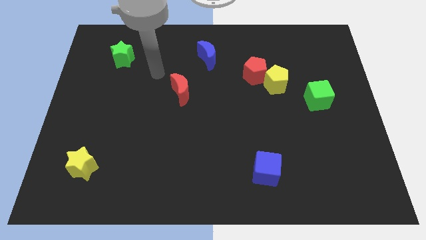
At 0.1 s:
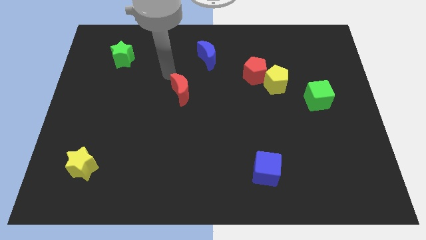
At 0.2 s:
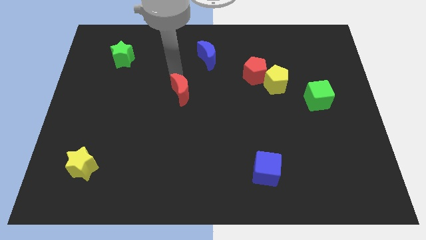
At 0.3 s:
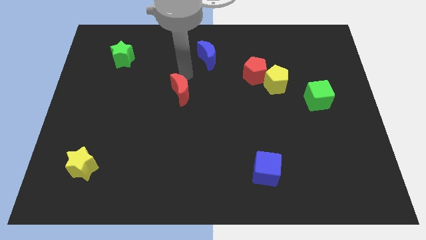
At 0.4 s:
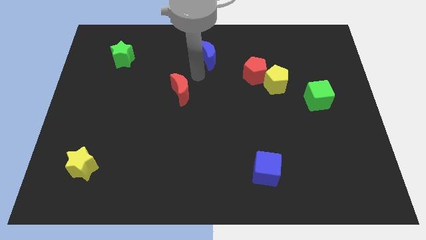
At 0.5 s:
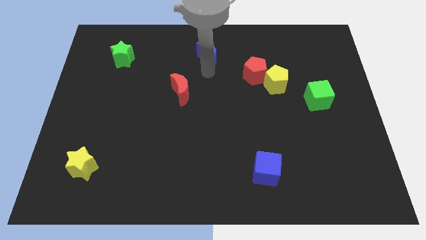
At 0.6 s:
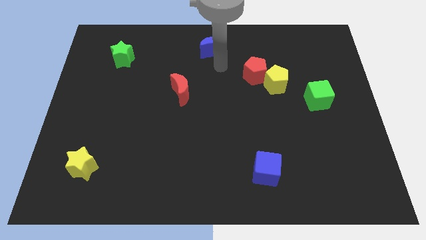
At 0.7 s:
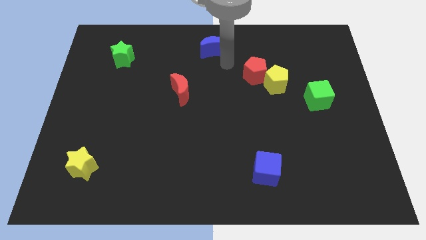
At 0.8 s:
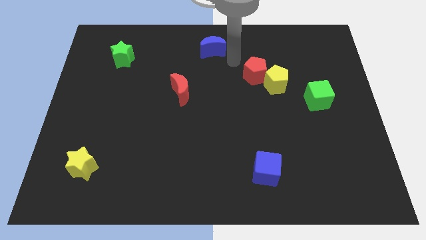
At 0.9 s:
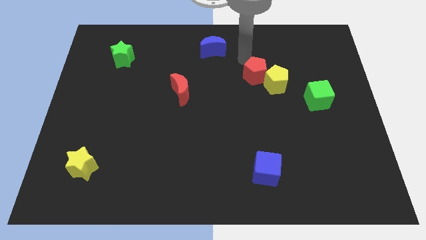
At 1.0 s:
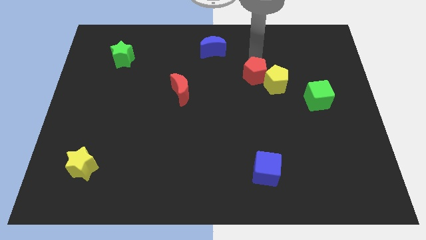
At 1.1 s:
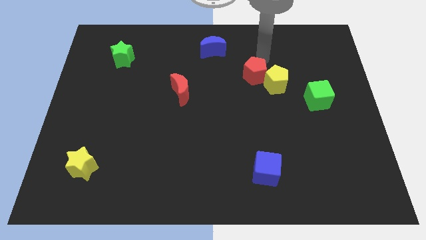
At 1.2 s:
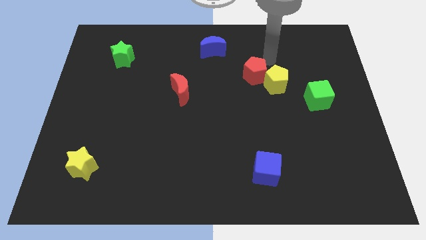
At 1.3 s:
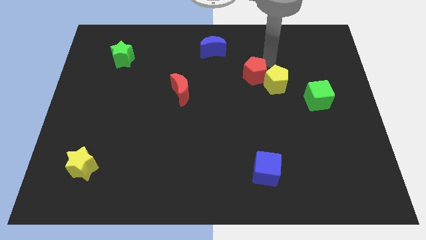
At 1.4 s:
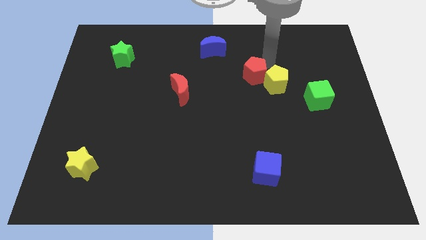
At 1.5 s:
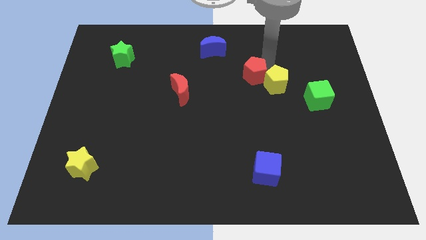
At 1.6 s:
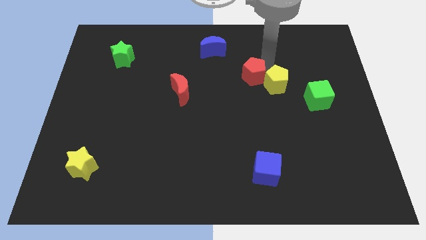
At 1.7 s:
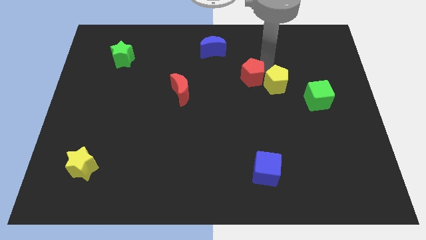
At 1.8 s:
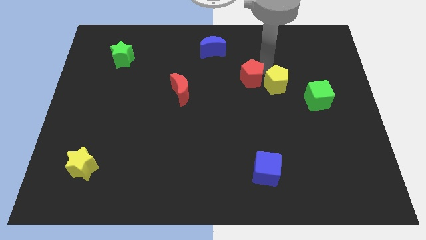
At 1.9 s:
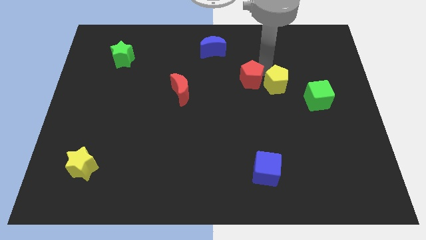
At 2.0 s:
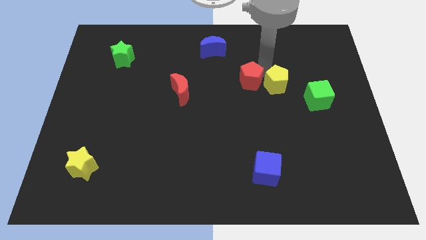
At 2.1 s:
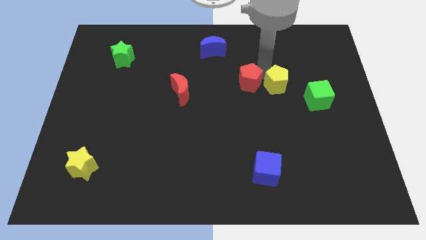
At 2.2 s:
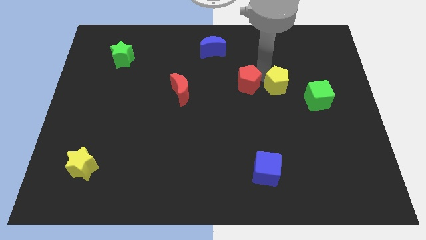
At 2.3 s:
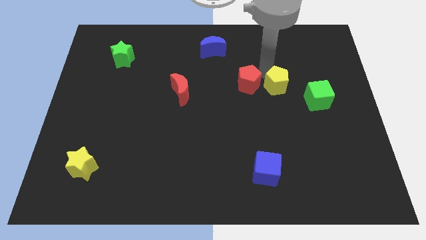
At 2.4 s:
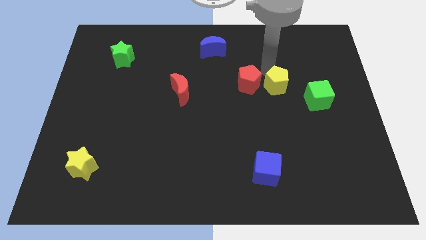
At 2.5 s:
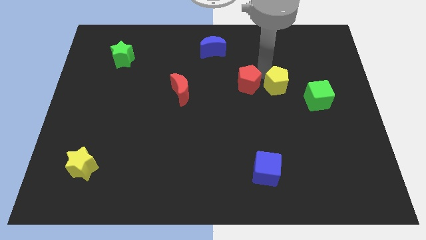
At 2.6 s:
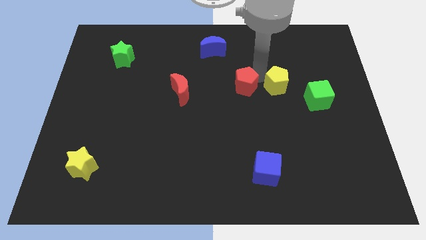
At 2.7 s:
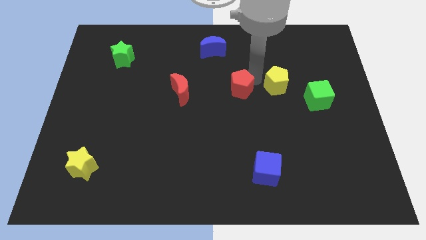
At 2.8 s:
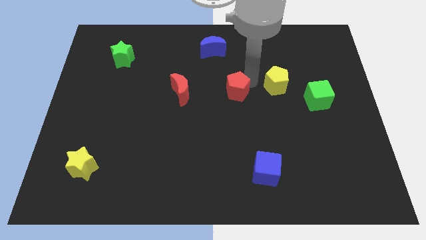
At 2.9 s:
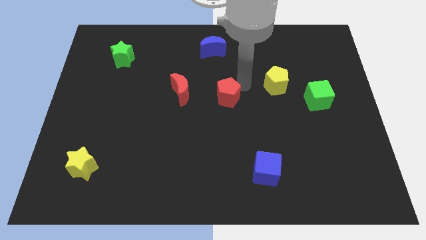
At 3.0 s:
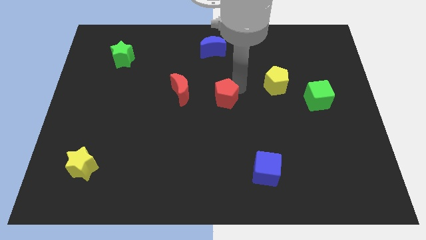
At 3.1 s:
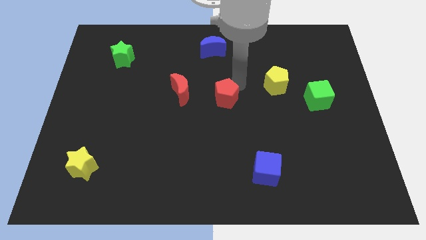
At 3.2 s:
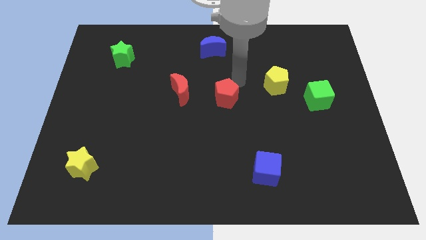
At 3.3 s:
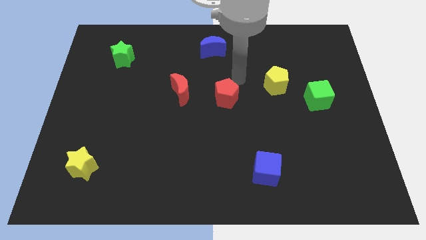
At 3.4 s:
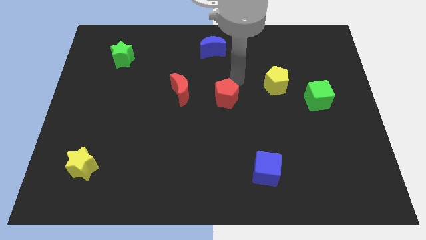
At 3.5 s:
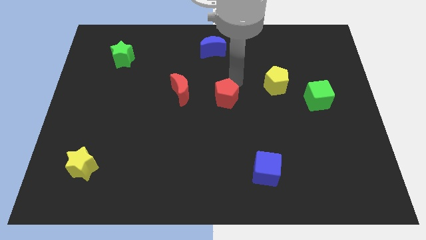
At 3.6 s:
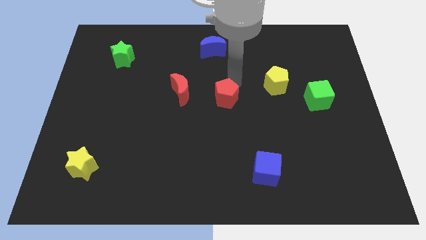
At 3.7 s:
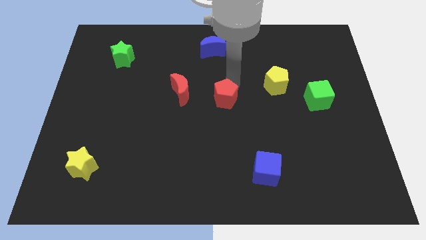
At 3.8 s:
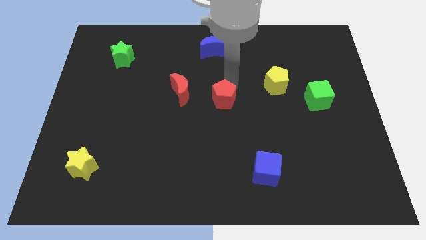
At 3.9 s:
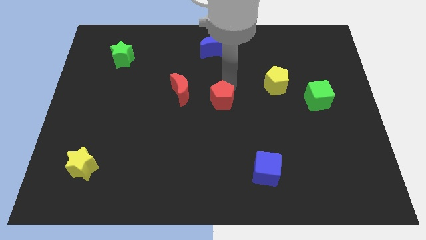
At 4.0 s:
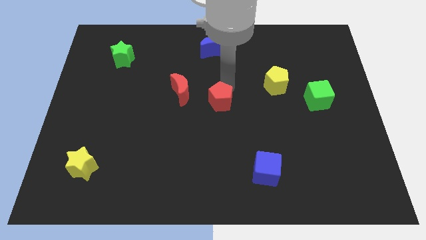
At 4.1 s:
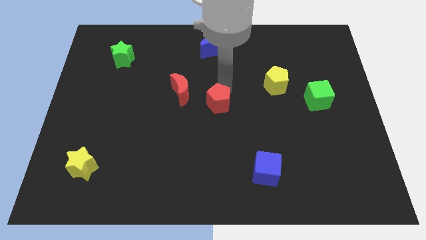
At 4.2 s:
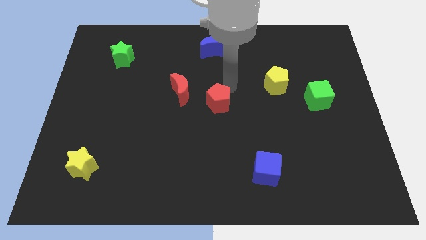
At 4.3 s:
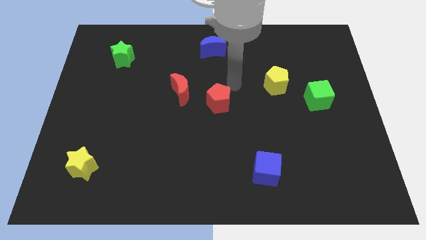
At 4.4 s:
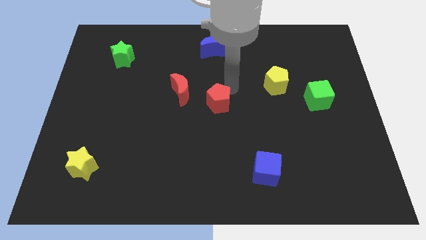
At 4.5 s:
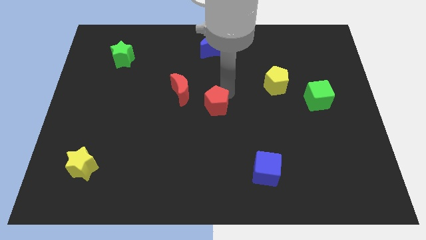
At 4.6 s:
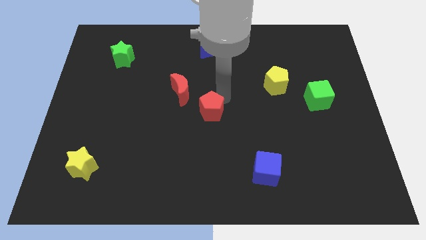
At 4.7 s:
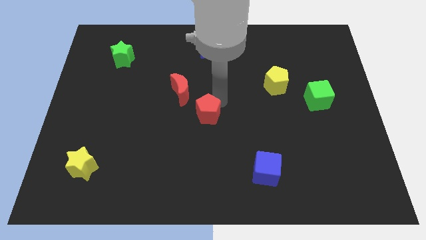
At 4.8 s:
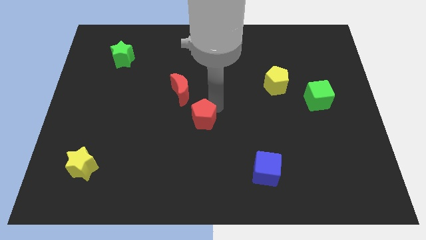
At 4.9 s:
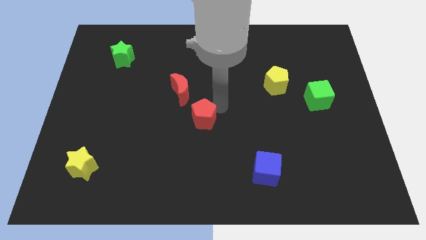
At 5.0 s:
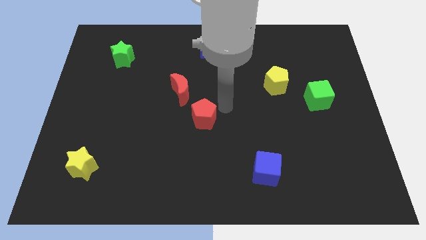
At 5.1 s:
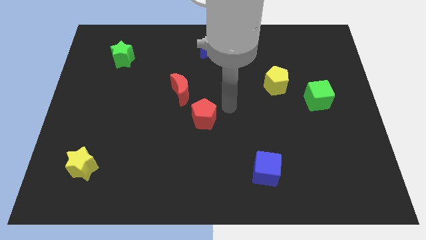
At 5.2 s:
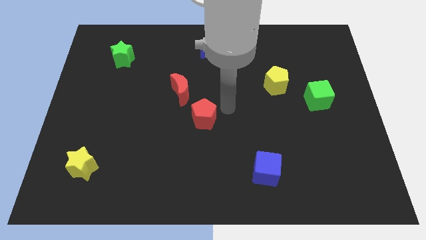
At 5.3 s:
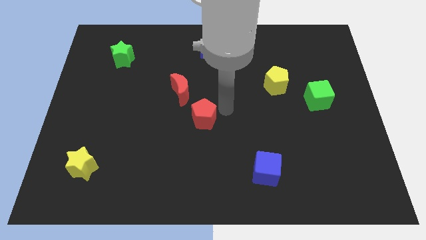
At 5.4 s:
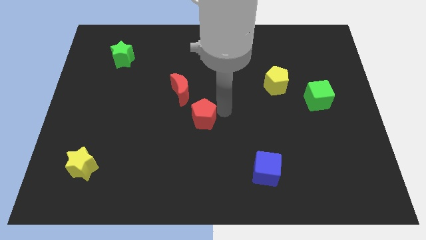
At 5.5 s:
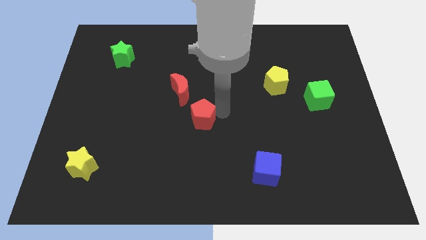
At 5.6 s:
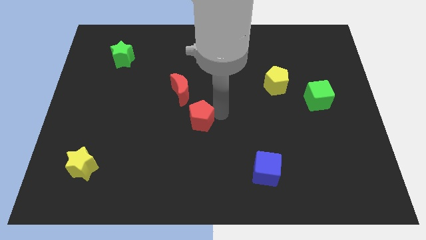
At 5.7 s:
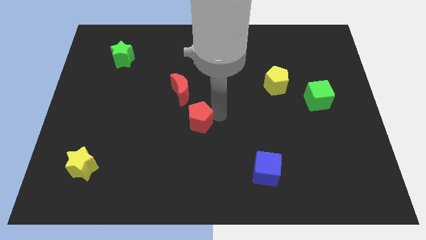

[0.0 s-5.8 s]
move the red pentagon downwards and to the left diagonally

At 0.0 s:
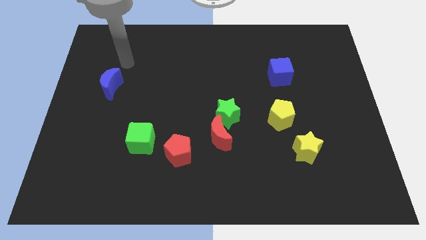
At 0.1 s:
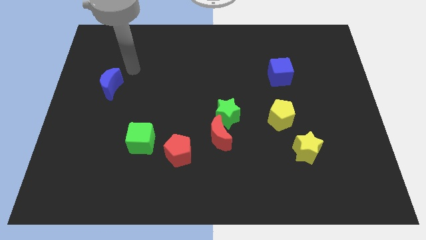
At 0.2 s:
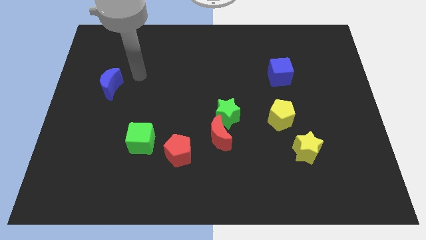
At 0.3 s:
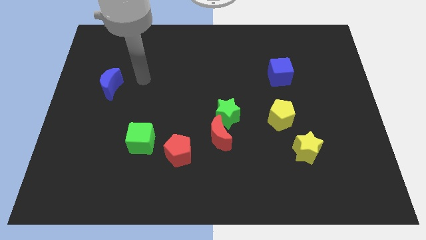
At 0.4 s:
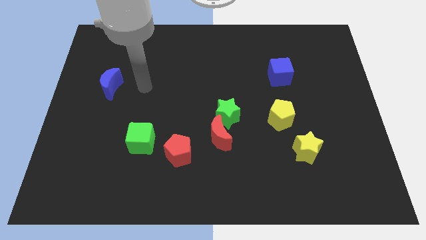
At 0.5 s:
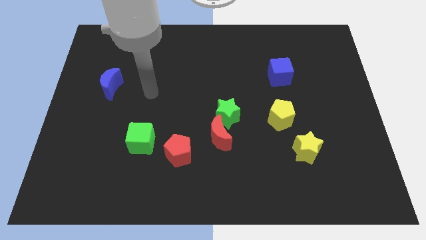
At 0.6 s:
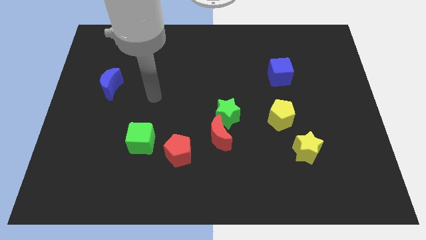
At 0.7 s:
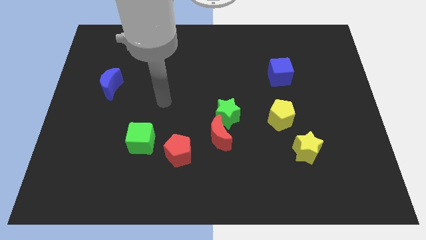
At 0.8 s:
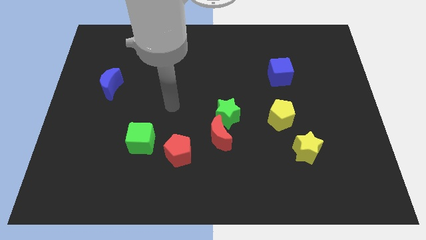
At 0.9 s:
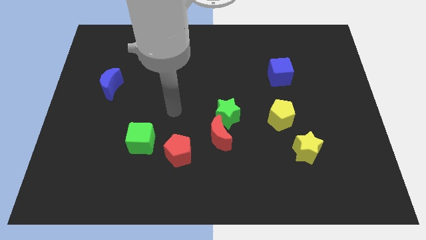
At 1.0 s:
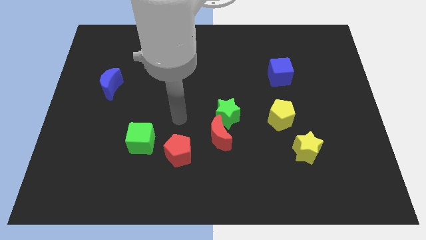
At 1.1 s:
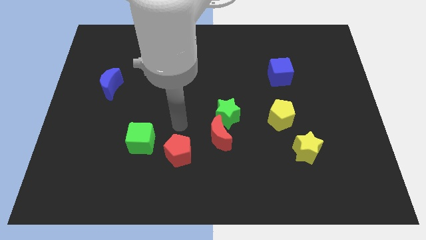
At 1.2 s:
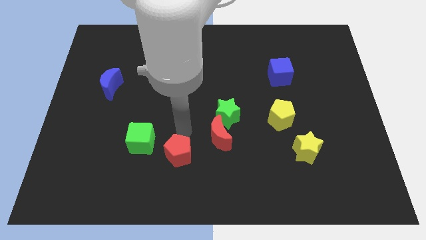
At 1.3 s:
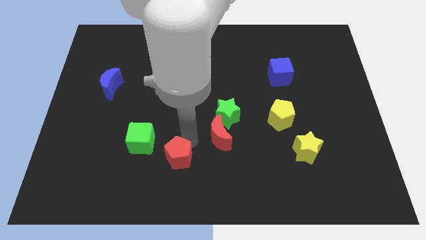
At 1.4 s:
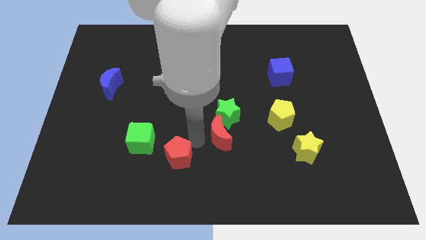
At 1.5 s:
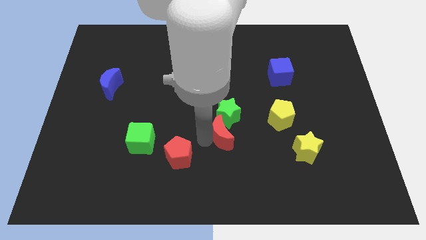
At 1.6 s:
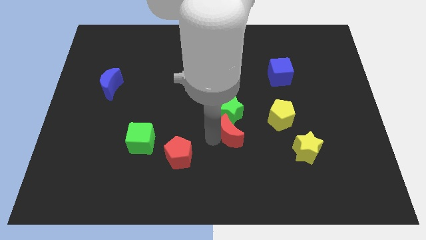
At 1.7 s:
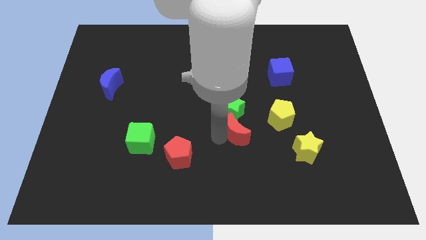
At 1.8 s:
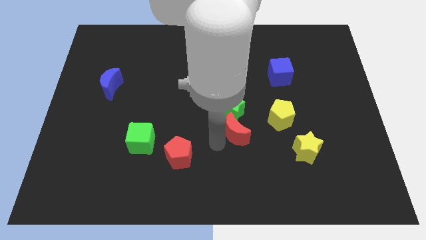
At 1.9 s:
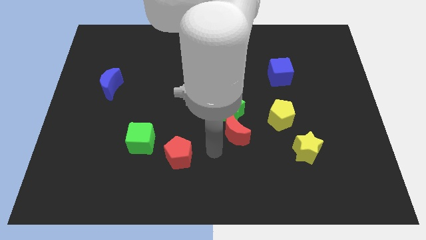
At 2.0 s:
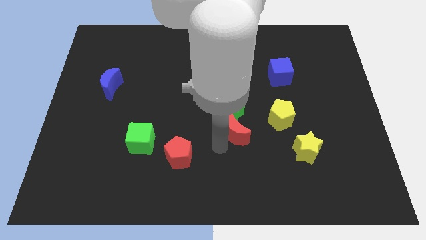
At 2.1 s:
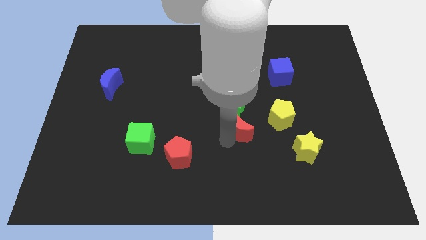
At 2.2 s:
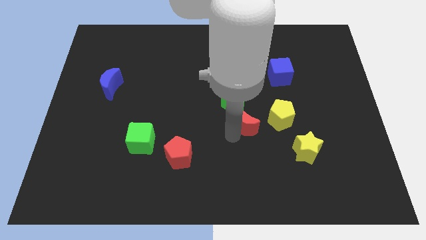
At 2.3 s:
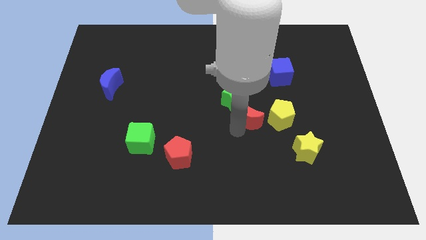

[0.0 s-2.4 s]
slide the red moon a bit up and to the right diagonally
